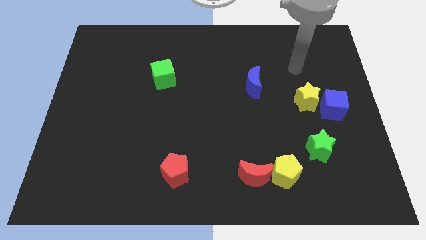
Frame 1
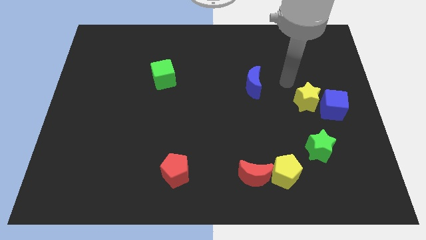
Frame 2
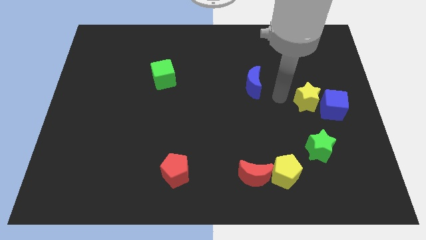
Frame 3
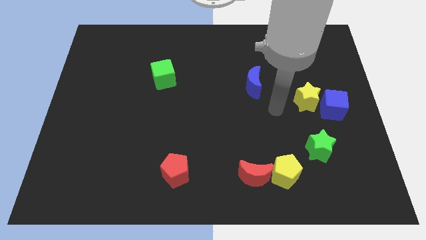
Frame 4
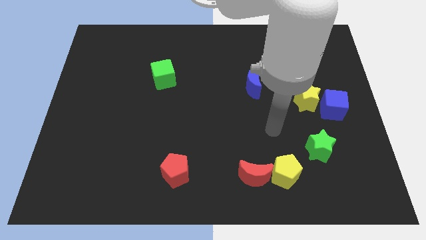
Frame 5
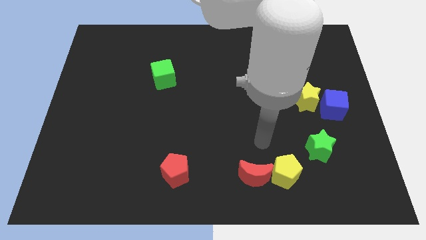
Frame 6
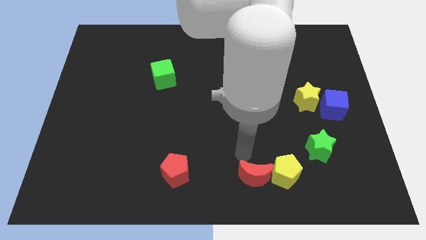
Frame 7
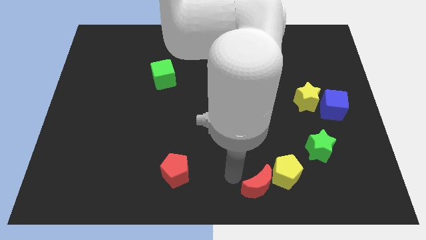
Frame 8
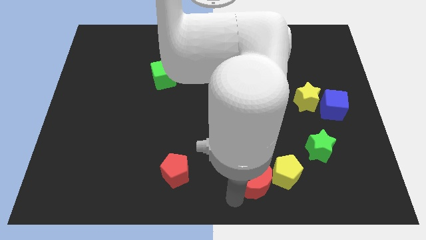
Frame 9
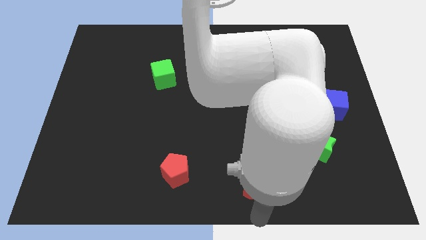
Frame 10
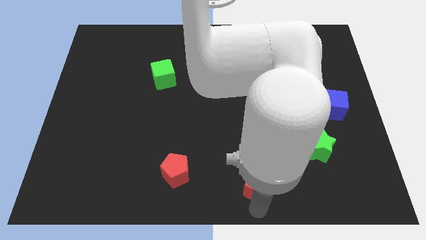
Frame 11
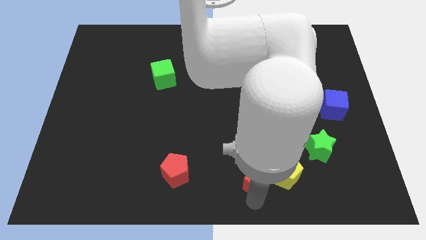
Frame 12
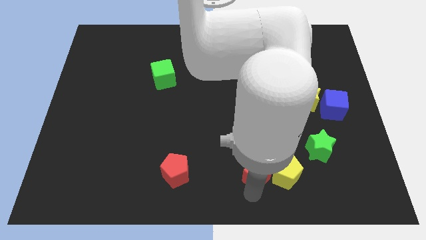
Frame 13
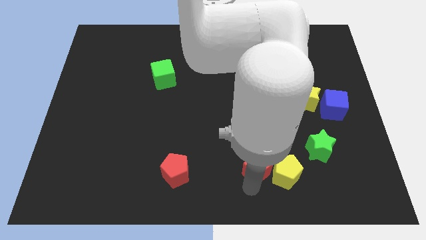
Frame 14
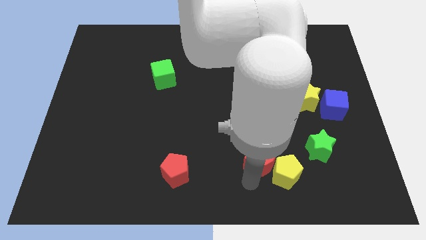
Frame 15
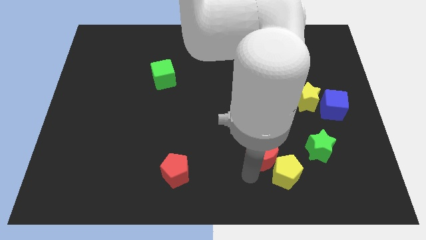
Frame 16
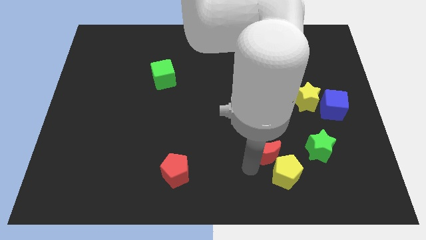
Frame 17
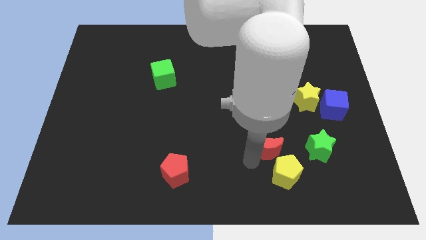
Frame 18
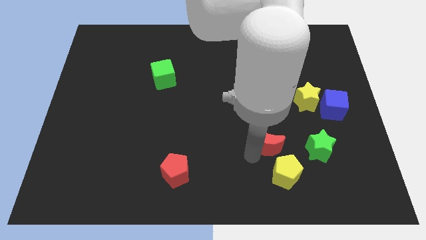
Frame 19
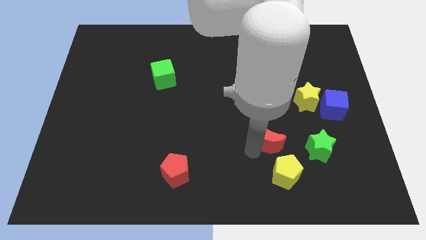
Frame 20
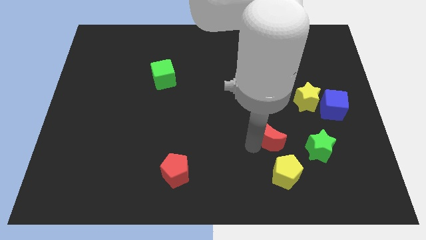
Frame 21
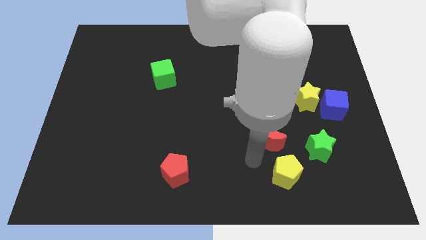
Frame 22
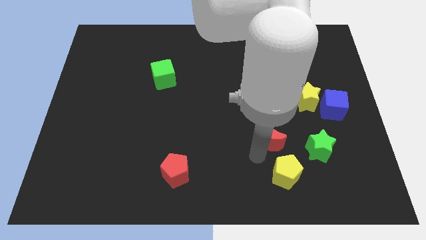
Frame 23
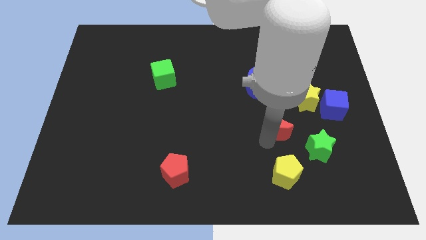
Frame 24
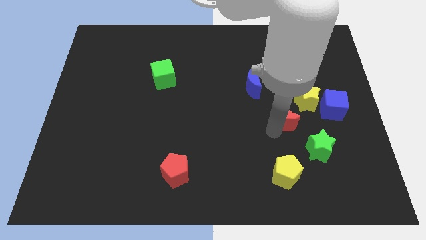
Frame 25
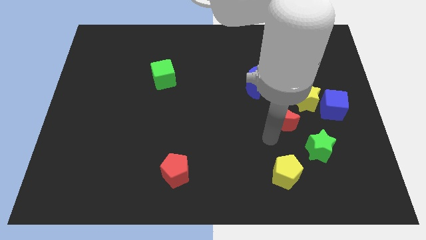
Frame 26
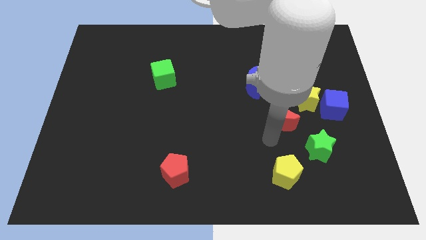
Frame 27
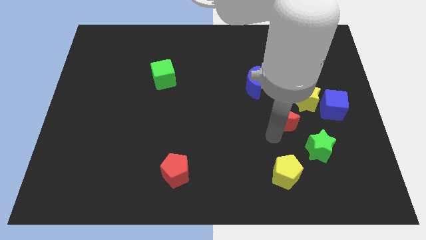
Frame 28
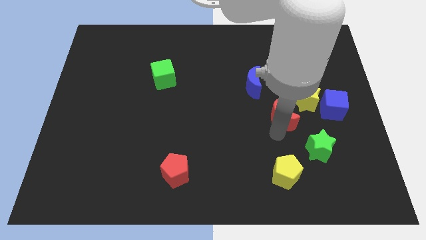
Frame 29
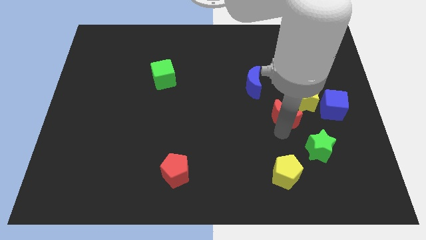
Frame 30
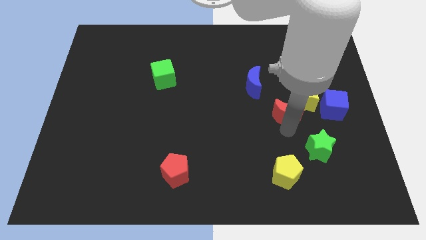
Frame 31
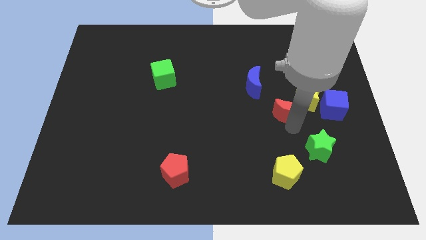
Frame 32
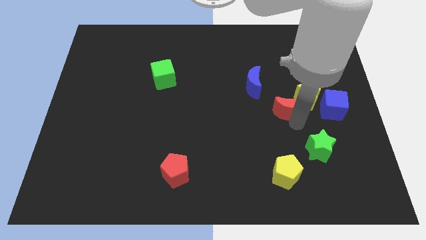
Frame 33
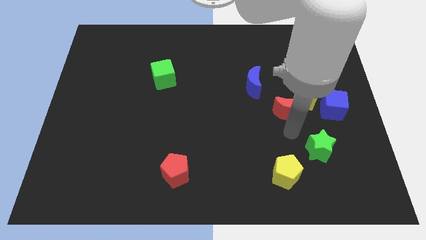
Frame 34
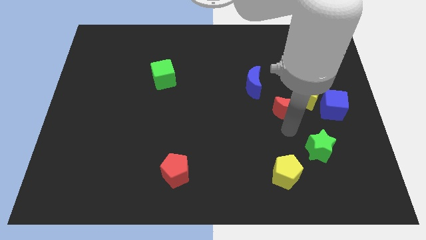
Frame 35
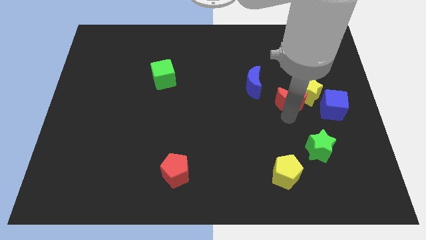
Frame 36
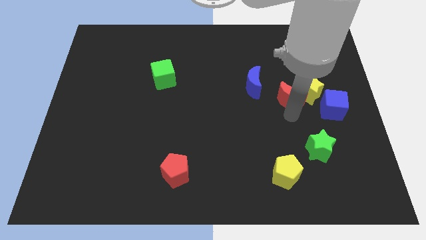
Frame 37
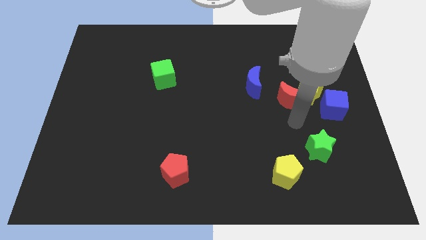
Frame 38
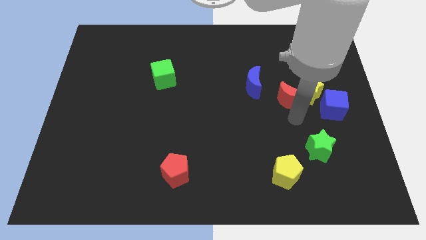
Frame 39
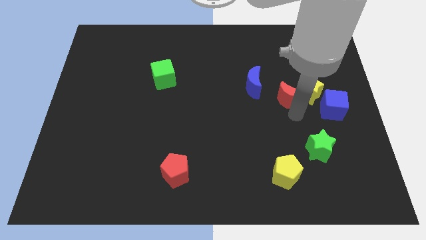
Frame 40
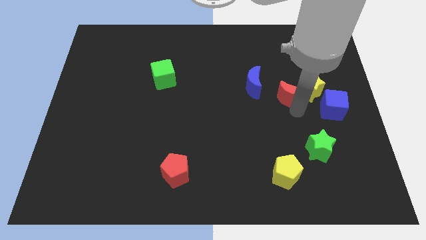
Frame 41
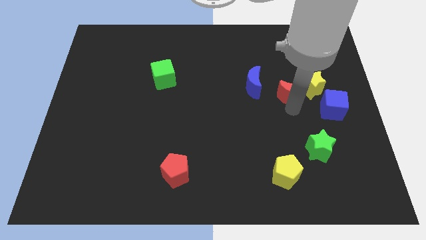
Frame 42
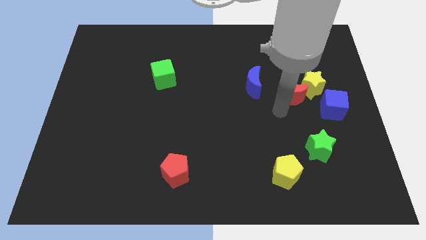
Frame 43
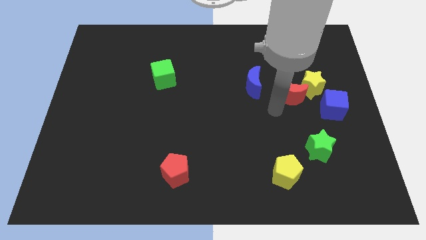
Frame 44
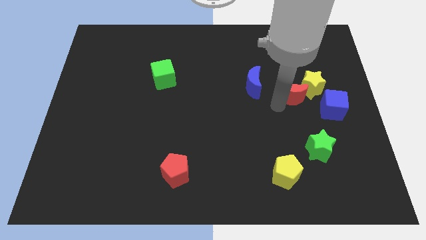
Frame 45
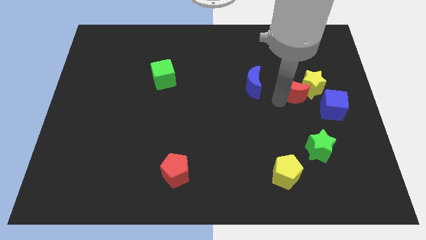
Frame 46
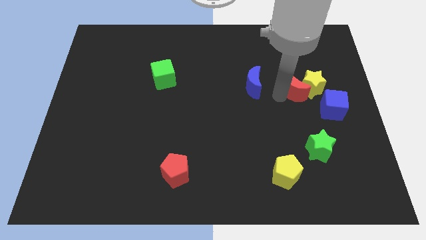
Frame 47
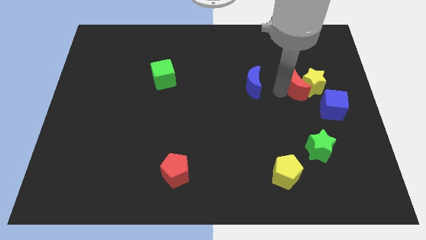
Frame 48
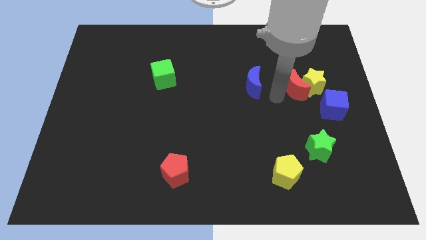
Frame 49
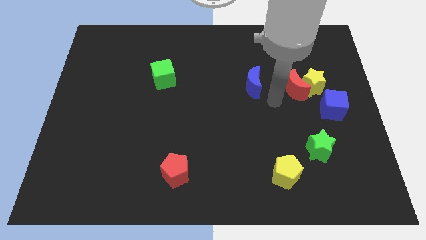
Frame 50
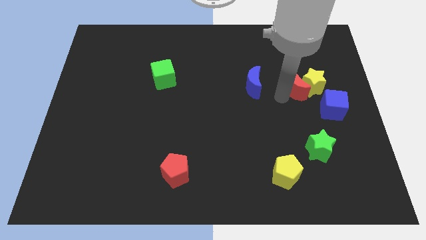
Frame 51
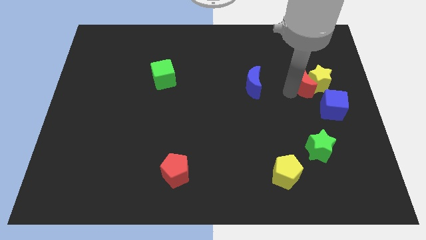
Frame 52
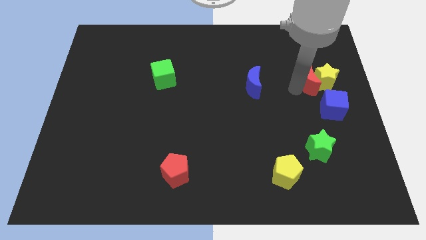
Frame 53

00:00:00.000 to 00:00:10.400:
slide the red moon to the top side of the blue cube
